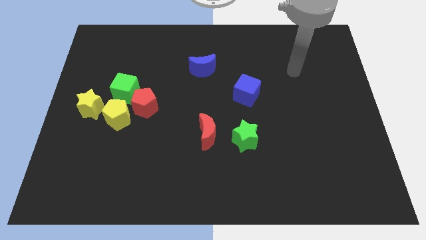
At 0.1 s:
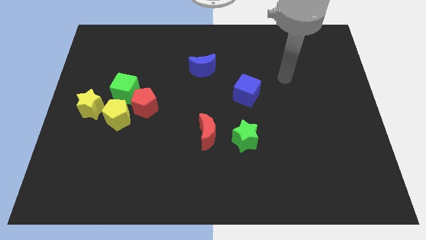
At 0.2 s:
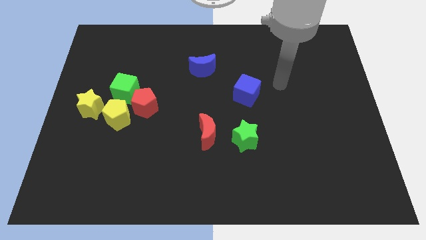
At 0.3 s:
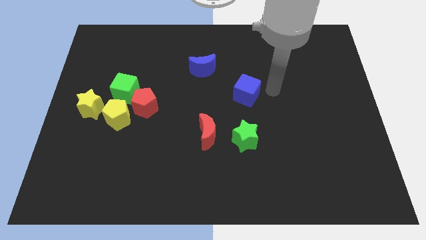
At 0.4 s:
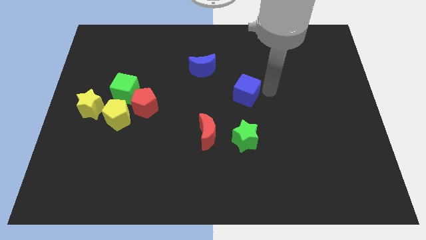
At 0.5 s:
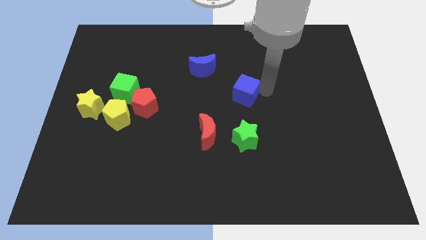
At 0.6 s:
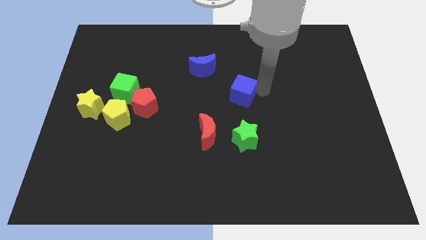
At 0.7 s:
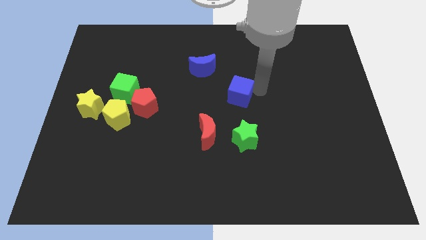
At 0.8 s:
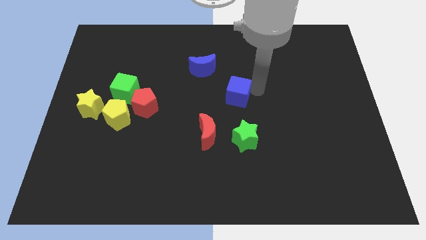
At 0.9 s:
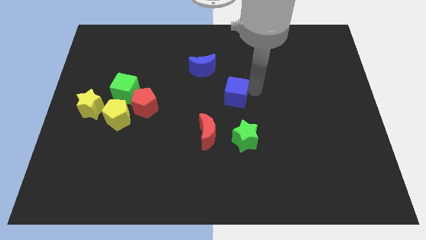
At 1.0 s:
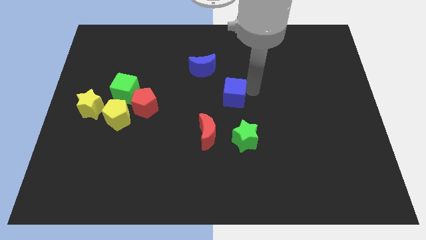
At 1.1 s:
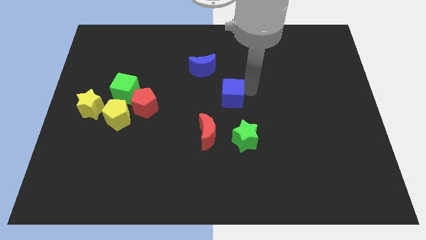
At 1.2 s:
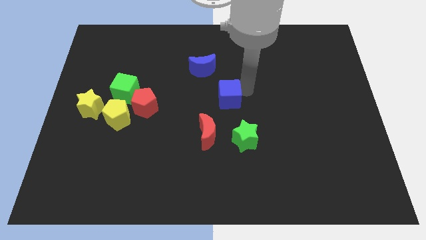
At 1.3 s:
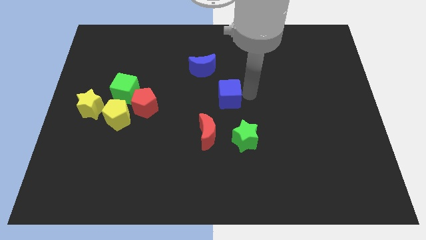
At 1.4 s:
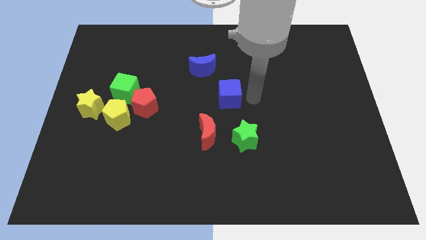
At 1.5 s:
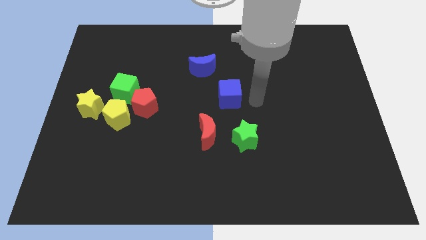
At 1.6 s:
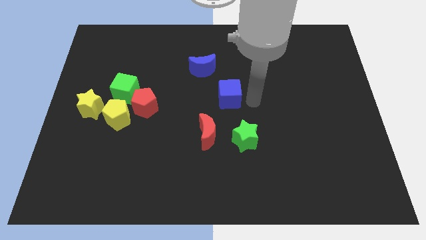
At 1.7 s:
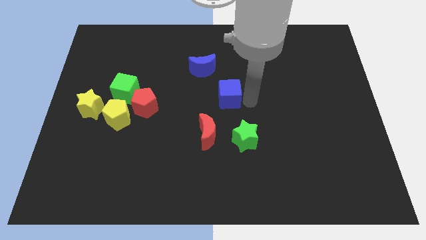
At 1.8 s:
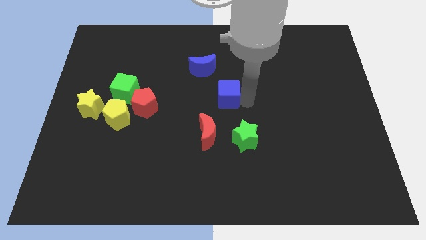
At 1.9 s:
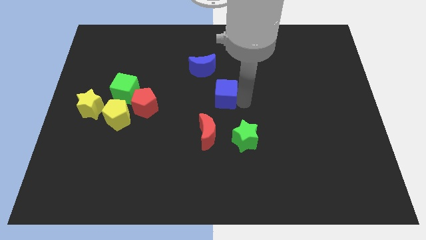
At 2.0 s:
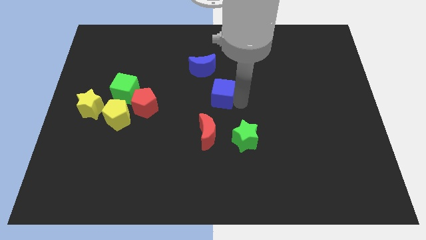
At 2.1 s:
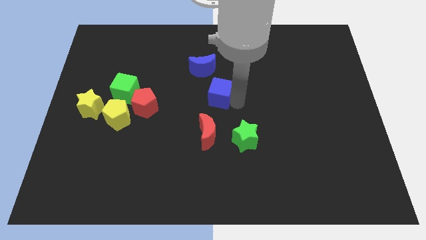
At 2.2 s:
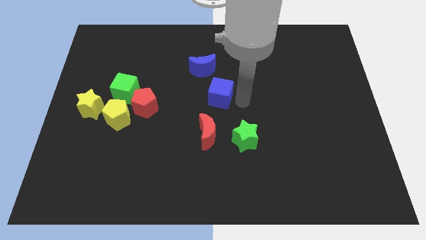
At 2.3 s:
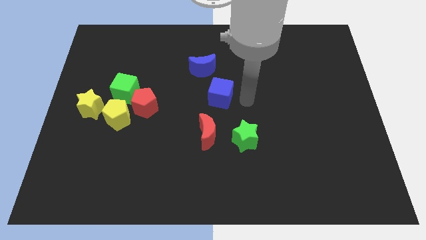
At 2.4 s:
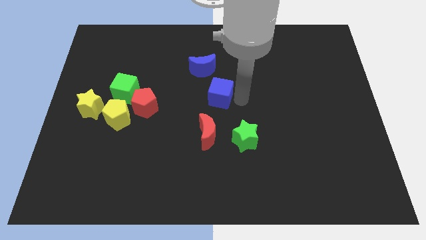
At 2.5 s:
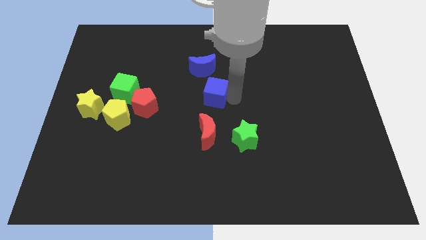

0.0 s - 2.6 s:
move the blue cube a bit left

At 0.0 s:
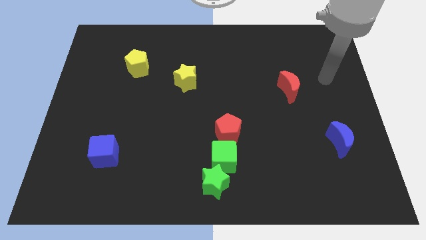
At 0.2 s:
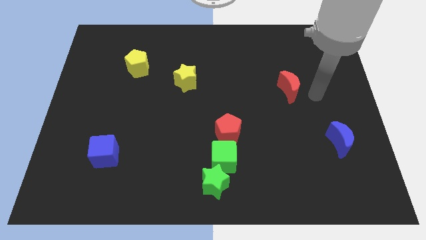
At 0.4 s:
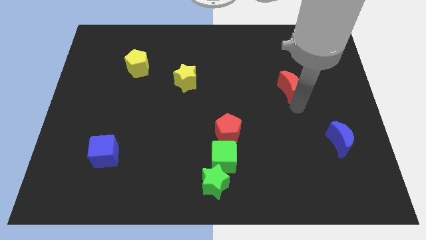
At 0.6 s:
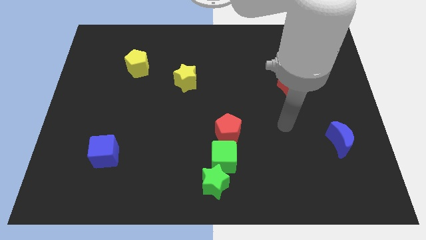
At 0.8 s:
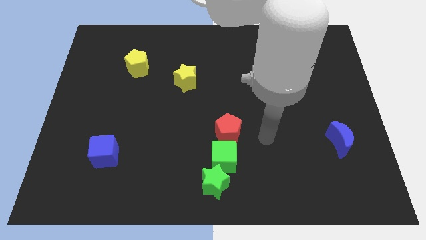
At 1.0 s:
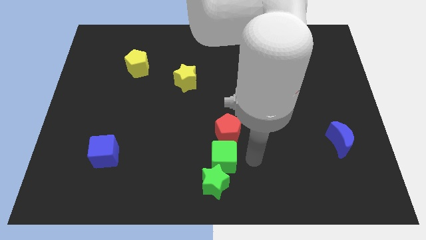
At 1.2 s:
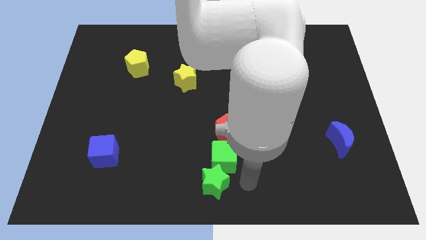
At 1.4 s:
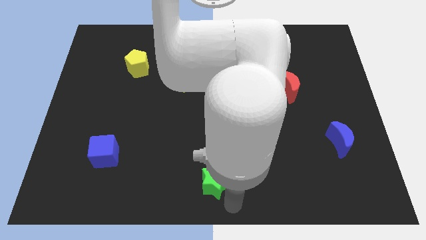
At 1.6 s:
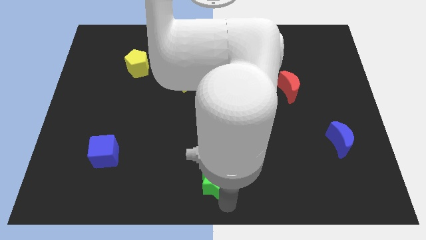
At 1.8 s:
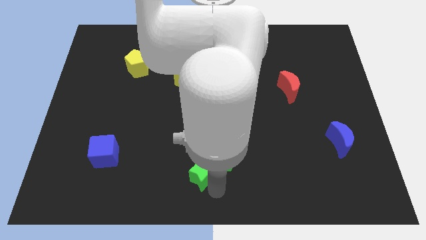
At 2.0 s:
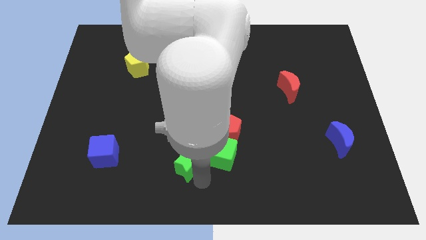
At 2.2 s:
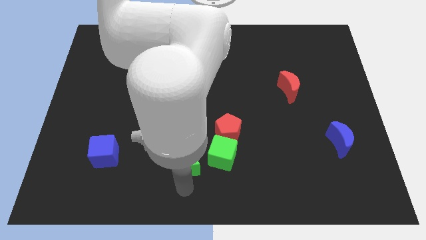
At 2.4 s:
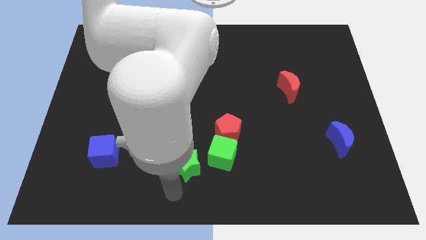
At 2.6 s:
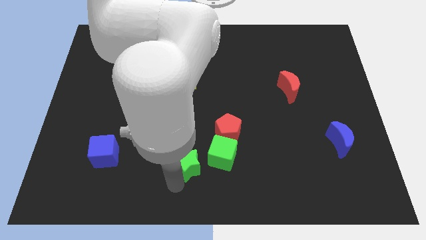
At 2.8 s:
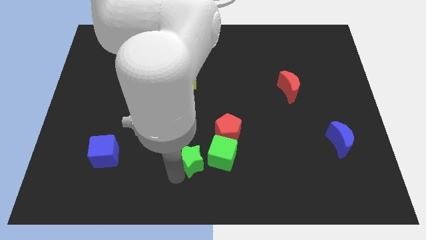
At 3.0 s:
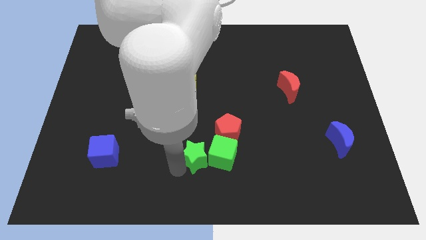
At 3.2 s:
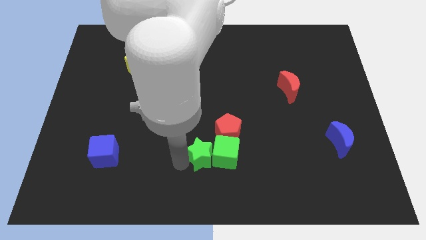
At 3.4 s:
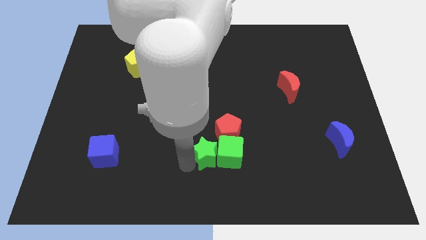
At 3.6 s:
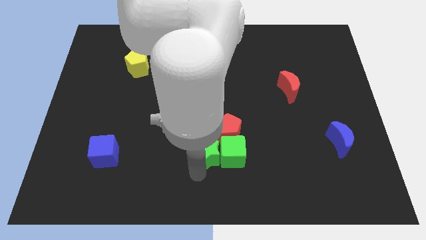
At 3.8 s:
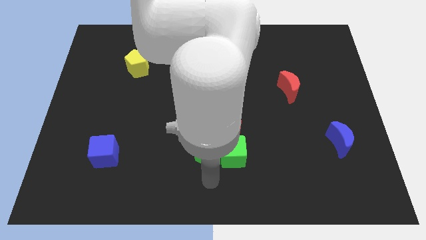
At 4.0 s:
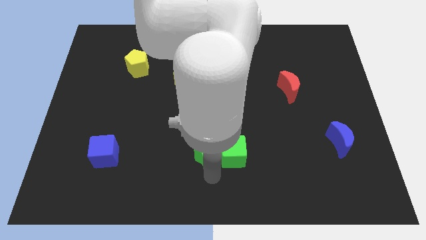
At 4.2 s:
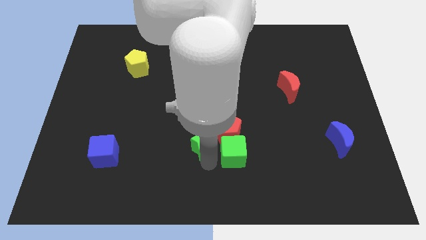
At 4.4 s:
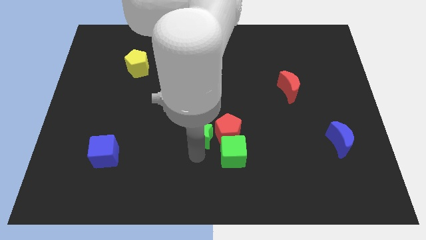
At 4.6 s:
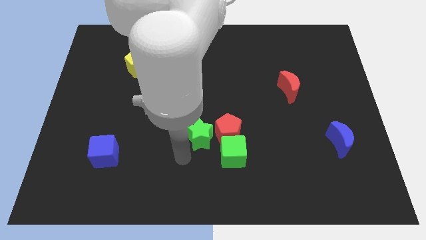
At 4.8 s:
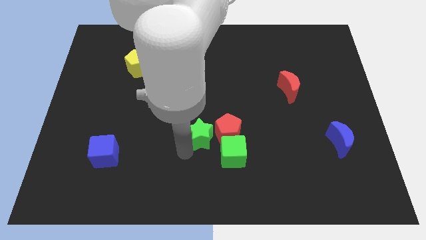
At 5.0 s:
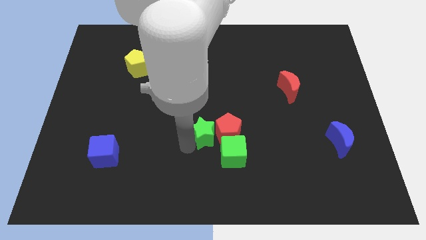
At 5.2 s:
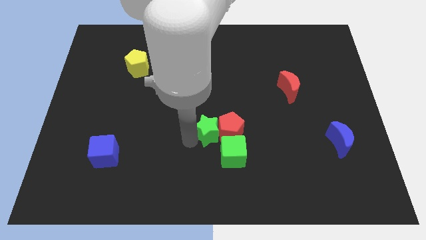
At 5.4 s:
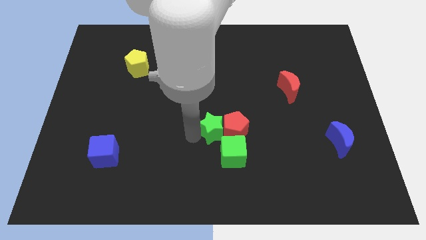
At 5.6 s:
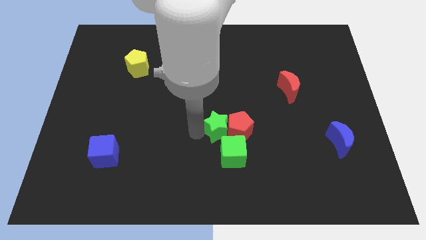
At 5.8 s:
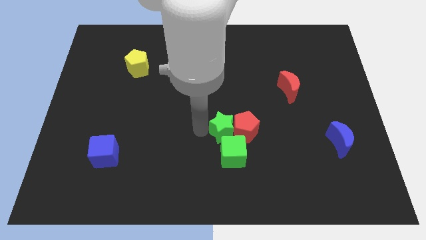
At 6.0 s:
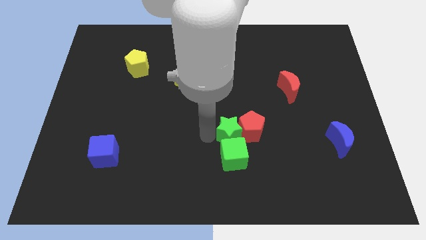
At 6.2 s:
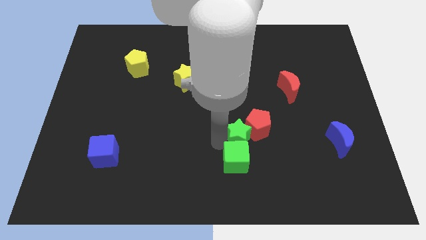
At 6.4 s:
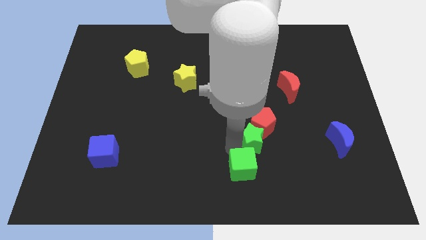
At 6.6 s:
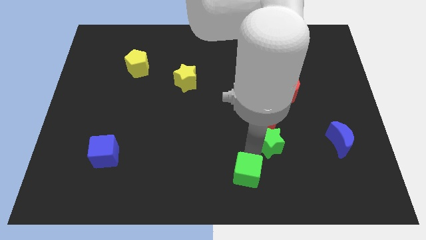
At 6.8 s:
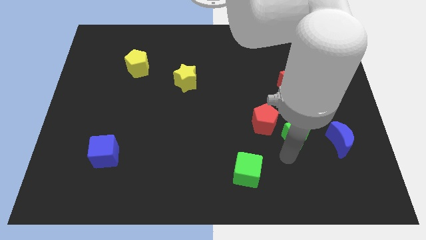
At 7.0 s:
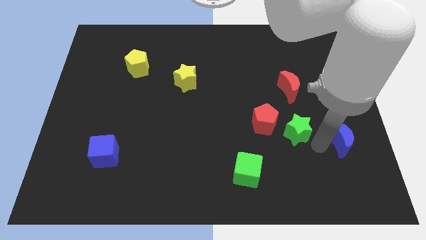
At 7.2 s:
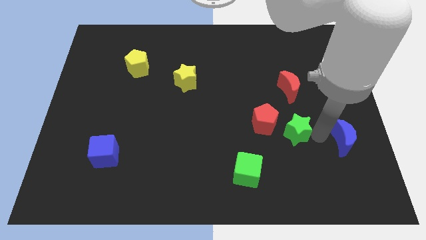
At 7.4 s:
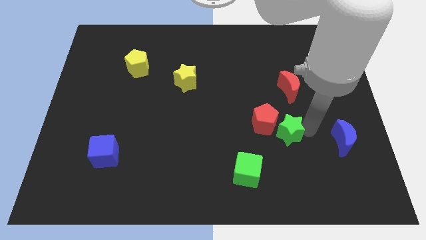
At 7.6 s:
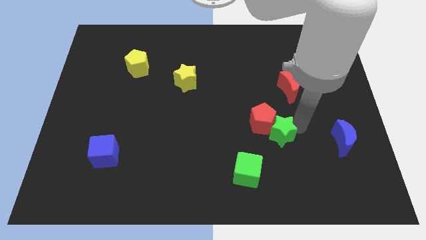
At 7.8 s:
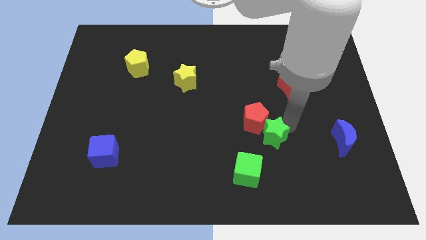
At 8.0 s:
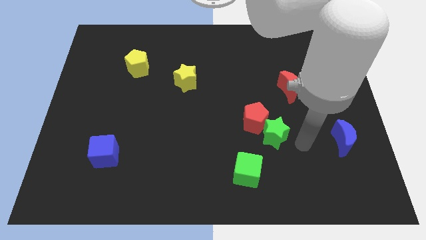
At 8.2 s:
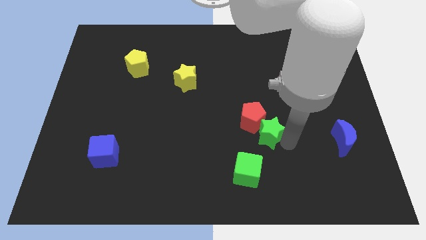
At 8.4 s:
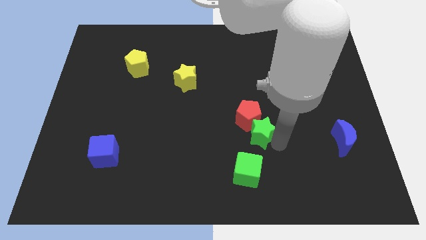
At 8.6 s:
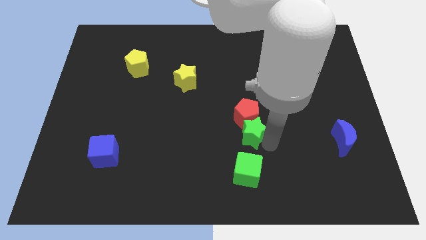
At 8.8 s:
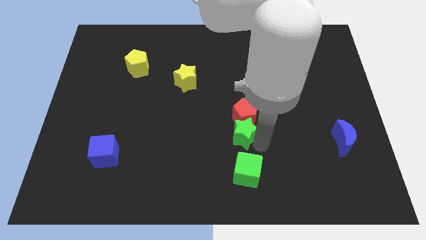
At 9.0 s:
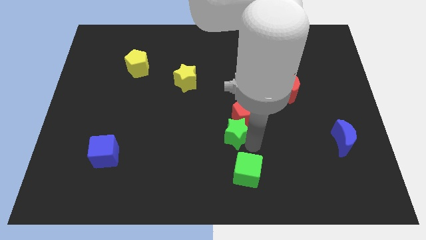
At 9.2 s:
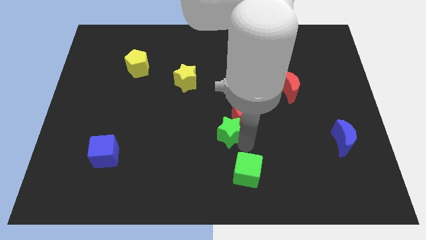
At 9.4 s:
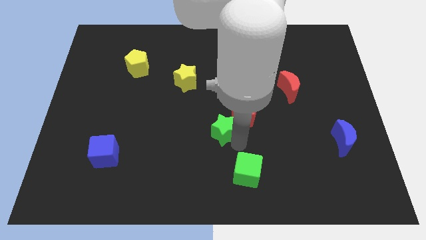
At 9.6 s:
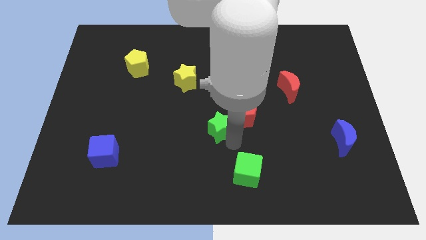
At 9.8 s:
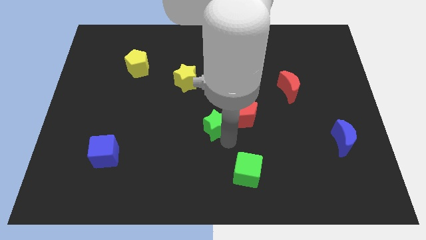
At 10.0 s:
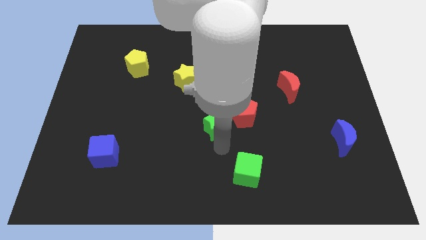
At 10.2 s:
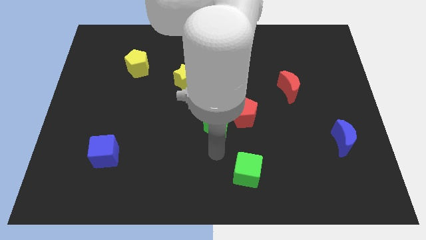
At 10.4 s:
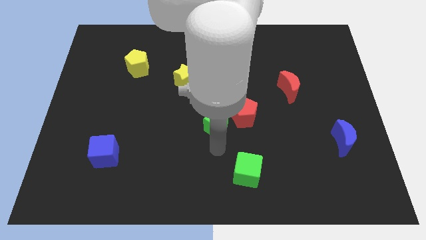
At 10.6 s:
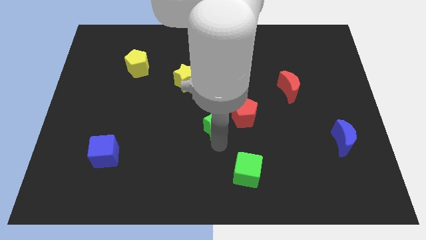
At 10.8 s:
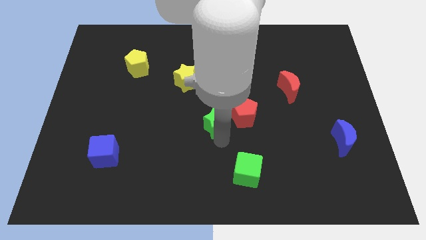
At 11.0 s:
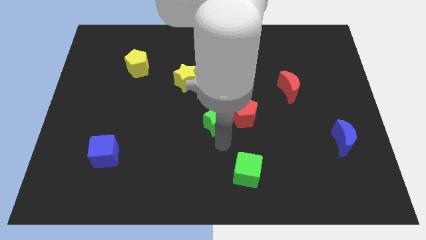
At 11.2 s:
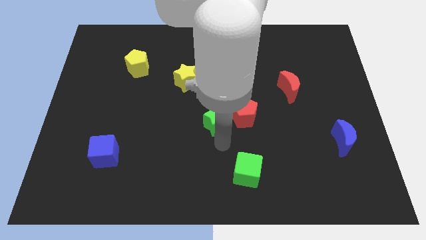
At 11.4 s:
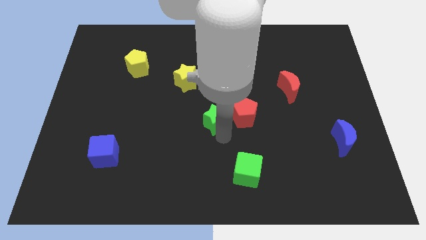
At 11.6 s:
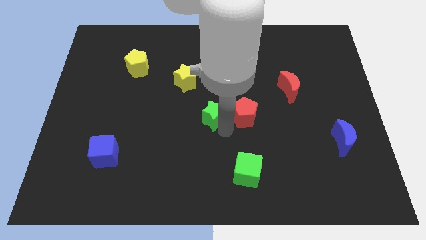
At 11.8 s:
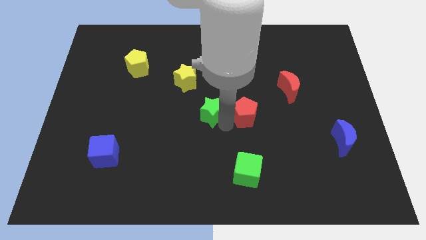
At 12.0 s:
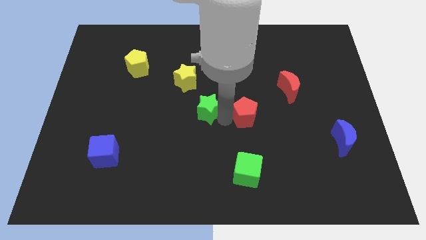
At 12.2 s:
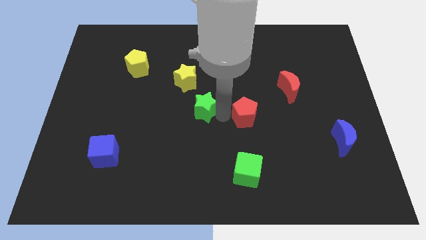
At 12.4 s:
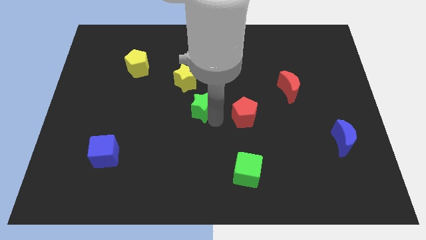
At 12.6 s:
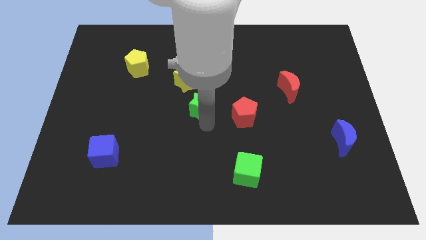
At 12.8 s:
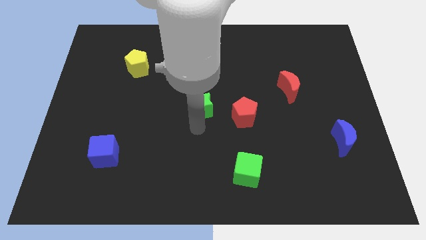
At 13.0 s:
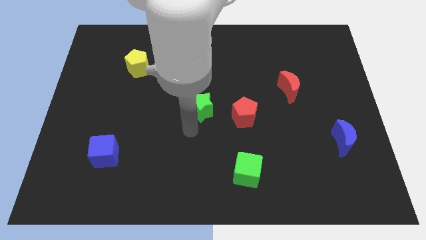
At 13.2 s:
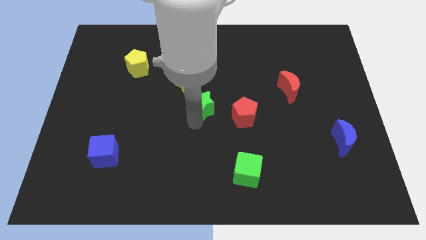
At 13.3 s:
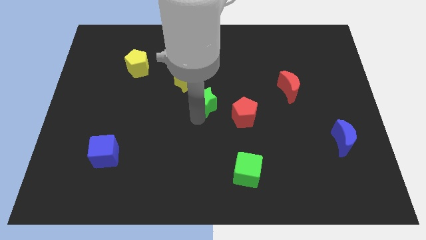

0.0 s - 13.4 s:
move the green star up
